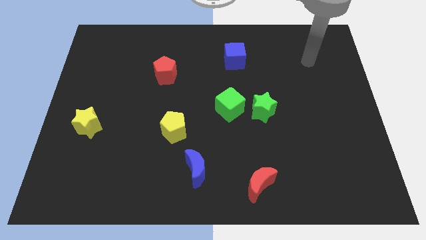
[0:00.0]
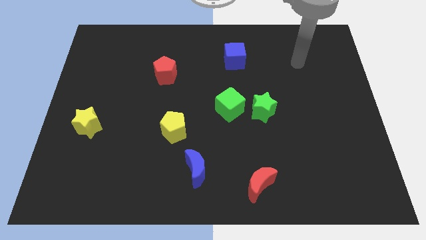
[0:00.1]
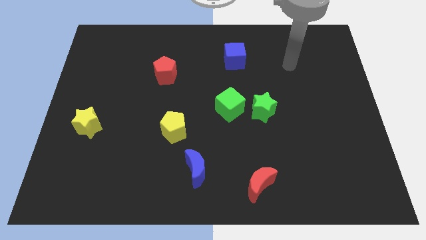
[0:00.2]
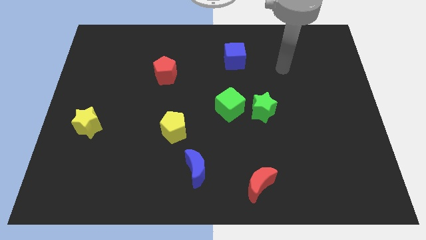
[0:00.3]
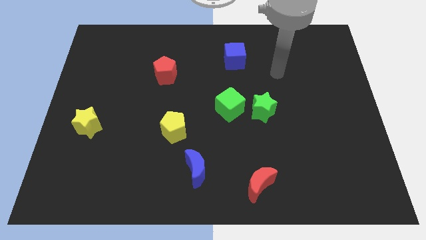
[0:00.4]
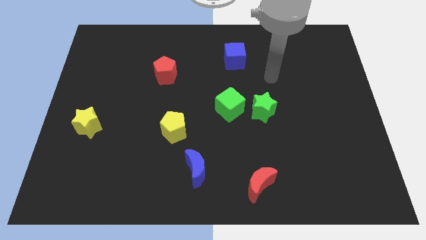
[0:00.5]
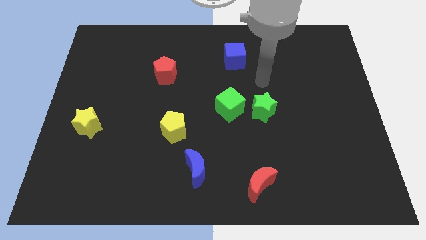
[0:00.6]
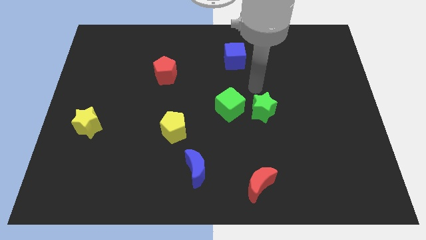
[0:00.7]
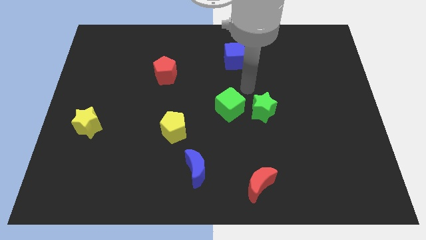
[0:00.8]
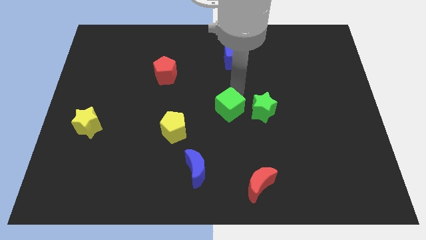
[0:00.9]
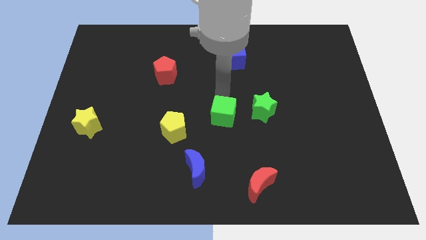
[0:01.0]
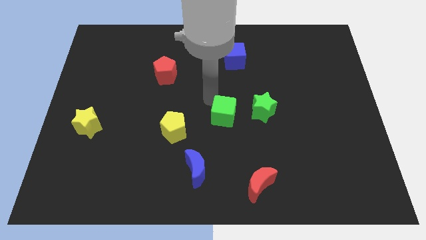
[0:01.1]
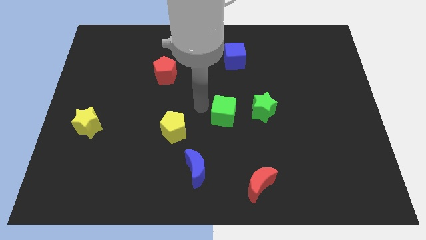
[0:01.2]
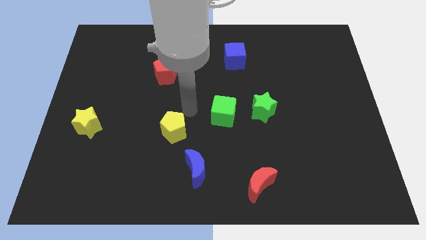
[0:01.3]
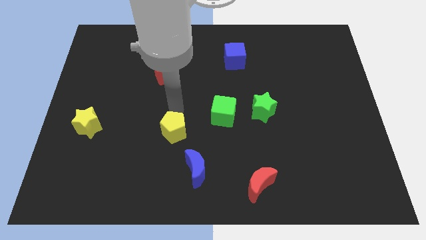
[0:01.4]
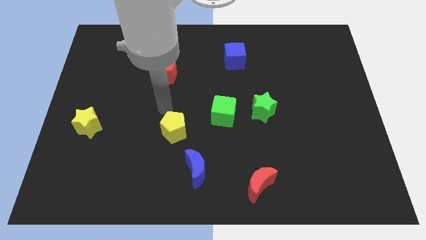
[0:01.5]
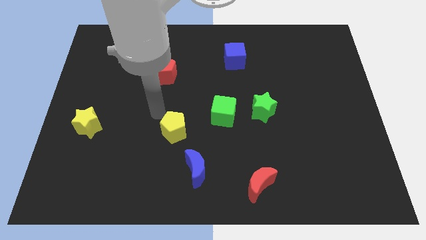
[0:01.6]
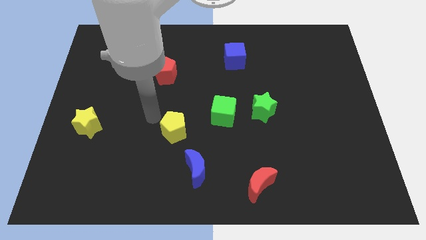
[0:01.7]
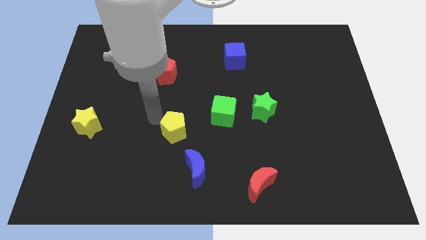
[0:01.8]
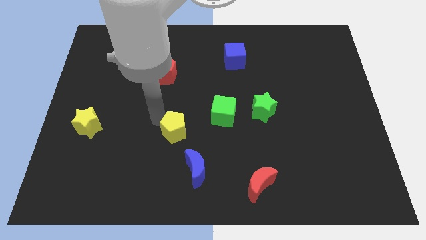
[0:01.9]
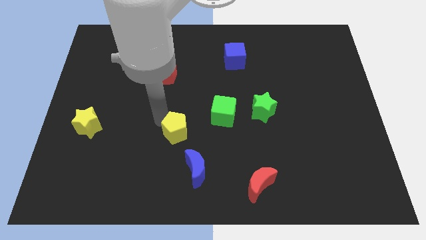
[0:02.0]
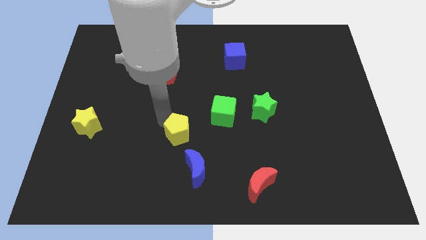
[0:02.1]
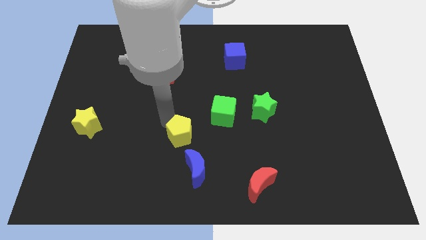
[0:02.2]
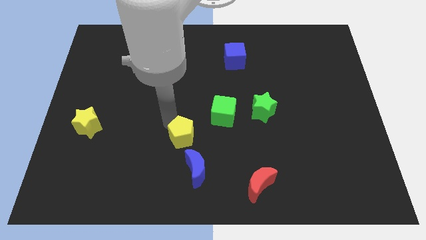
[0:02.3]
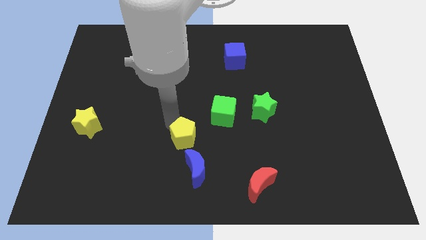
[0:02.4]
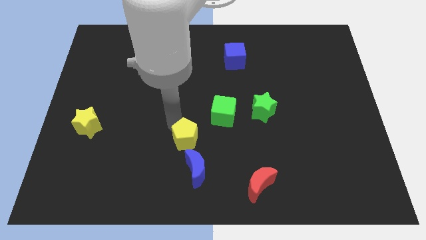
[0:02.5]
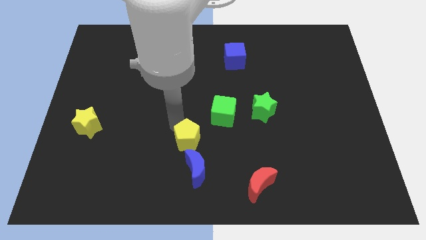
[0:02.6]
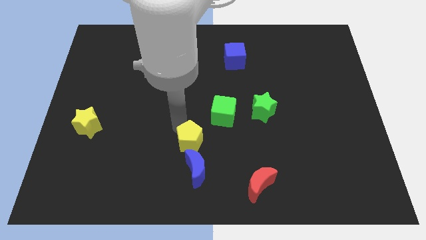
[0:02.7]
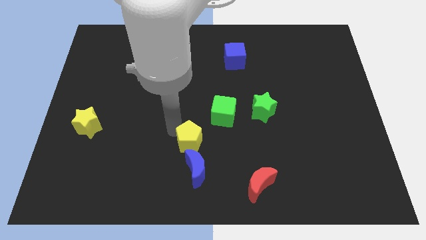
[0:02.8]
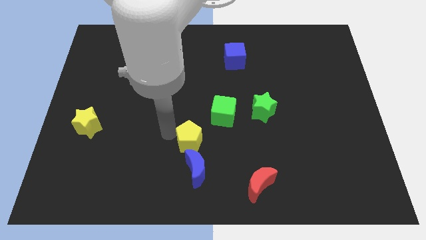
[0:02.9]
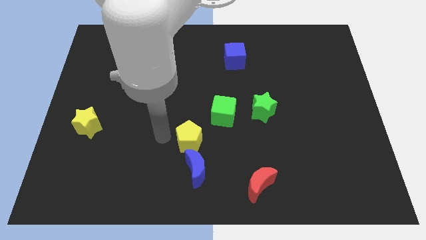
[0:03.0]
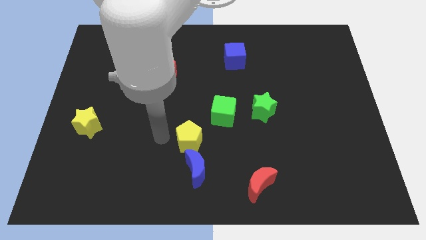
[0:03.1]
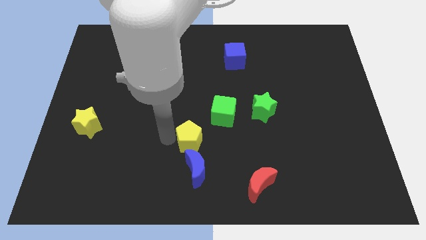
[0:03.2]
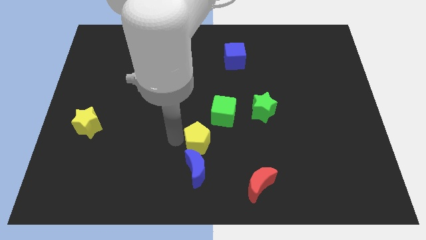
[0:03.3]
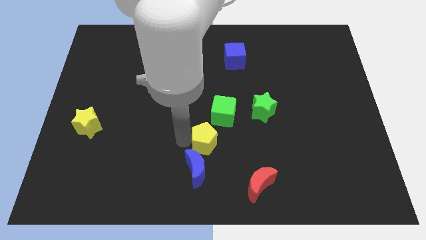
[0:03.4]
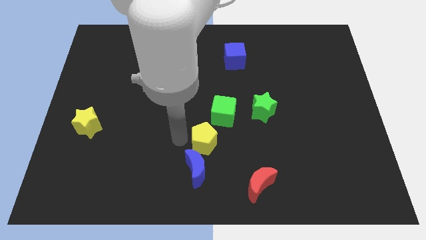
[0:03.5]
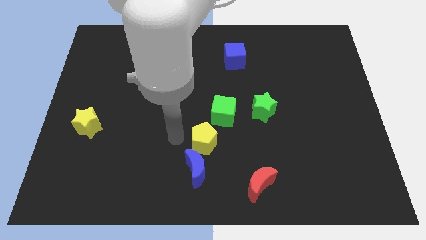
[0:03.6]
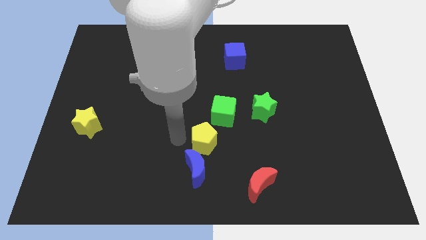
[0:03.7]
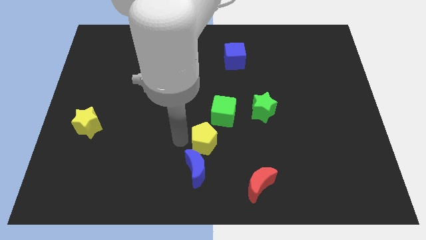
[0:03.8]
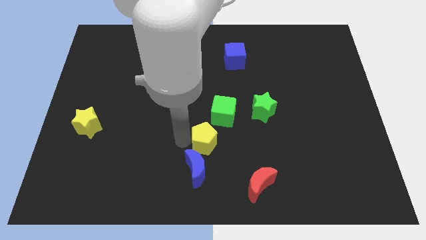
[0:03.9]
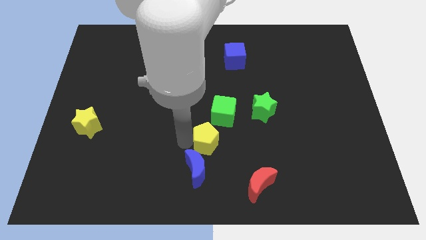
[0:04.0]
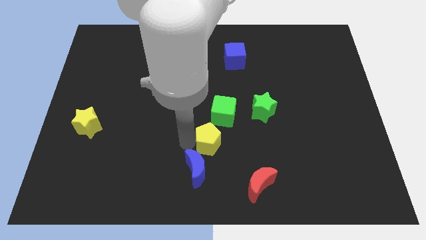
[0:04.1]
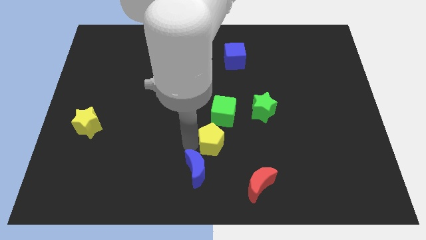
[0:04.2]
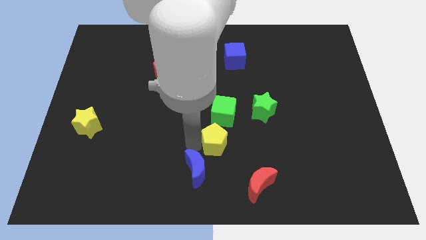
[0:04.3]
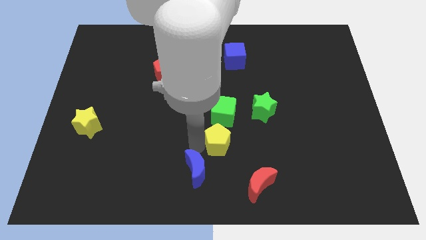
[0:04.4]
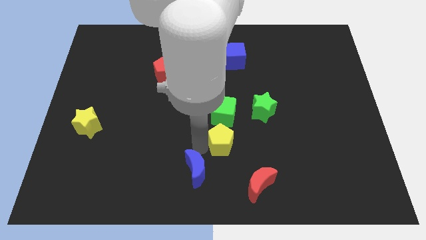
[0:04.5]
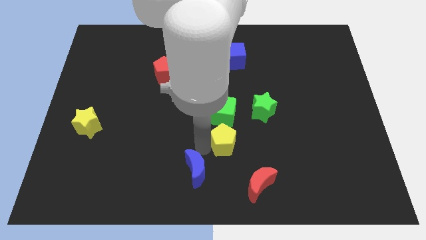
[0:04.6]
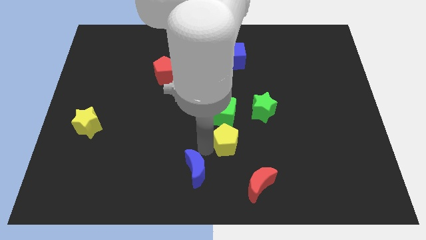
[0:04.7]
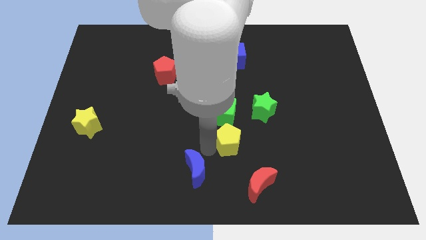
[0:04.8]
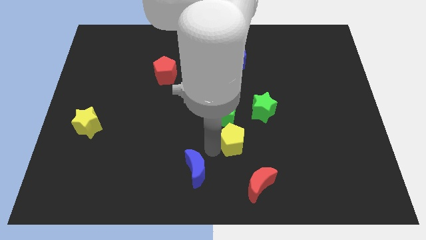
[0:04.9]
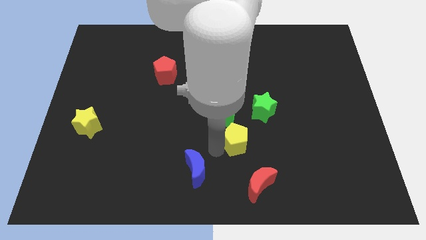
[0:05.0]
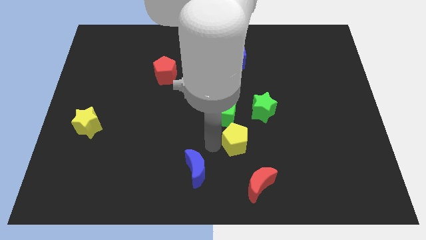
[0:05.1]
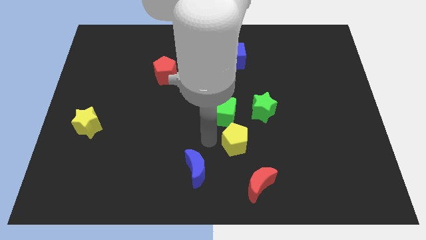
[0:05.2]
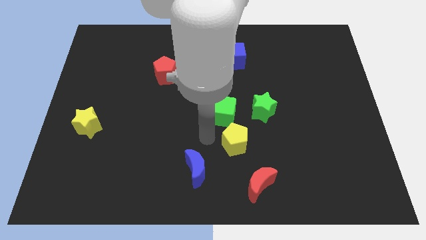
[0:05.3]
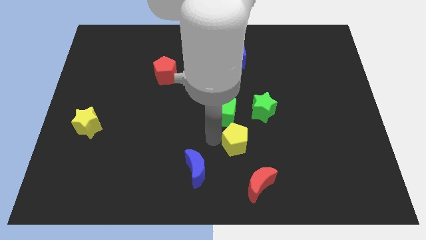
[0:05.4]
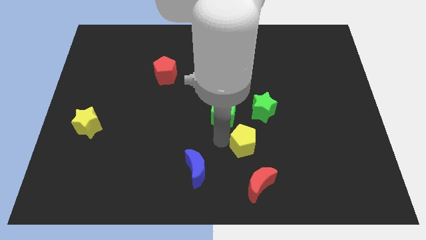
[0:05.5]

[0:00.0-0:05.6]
put the yellow pentagon to the bottom side of the green star

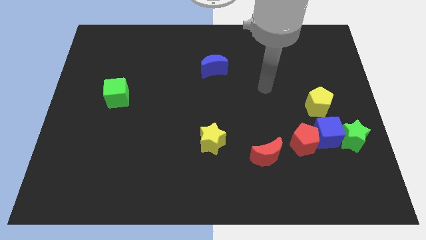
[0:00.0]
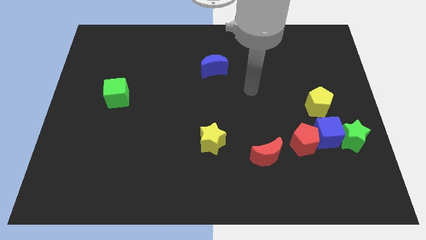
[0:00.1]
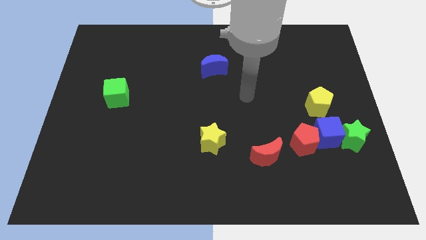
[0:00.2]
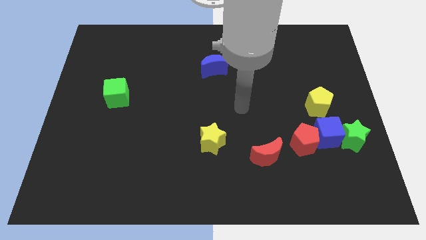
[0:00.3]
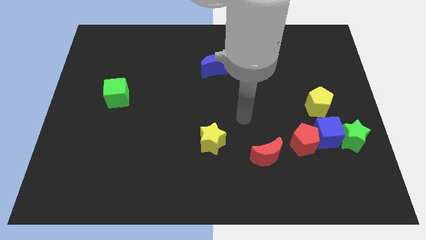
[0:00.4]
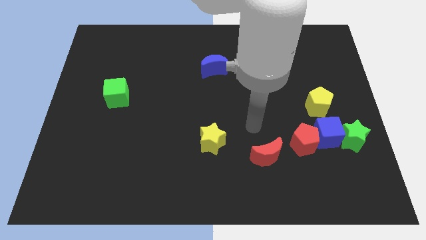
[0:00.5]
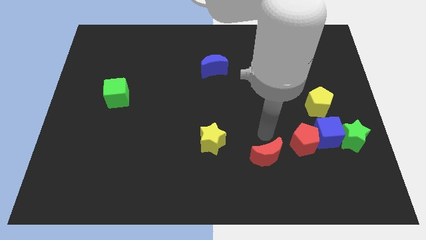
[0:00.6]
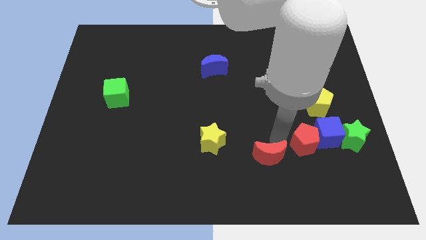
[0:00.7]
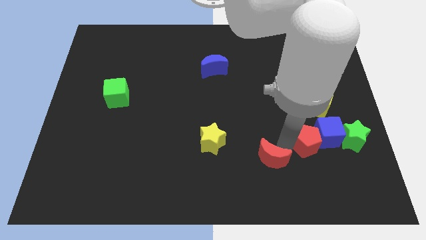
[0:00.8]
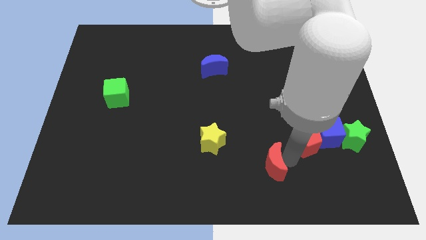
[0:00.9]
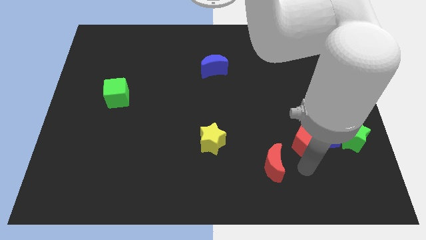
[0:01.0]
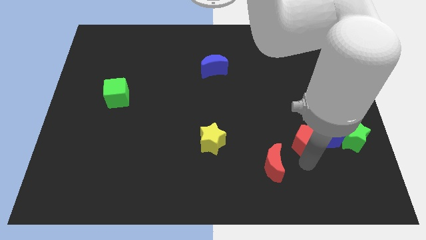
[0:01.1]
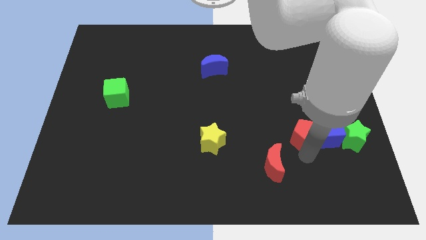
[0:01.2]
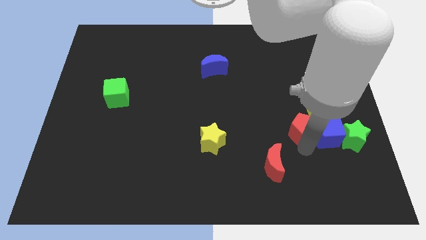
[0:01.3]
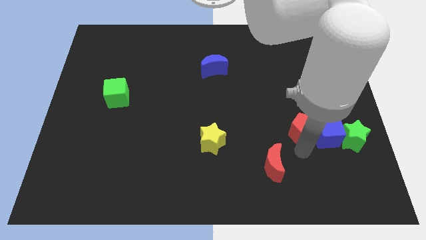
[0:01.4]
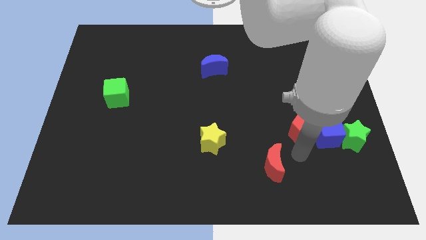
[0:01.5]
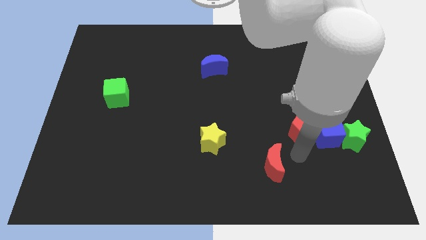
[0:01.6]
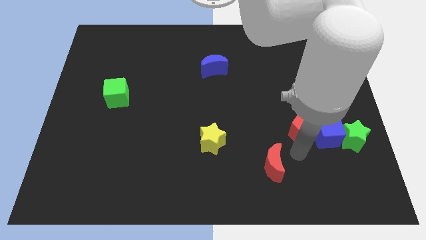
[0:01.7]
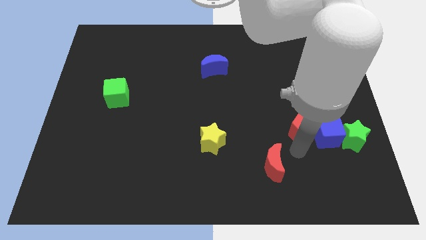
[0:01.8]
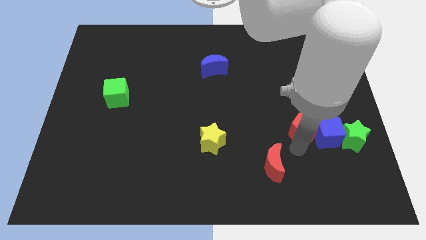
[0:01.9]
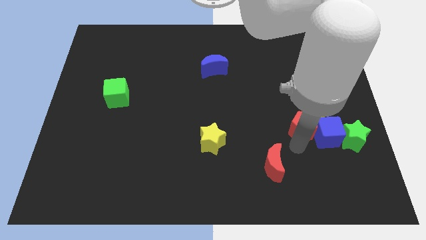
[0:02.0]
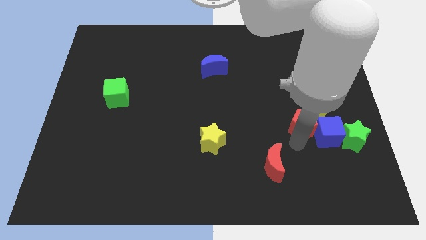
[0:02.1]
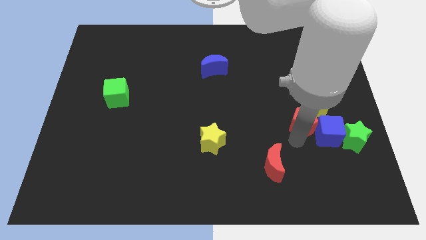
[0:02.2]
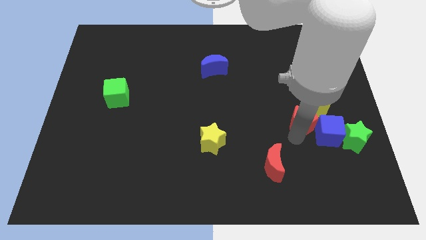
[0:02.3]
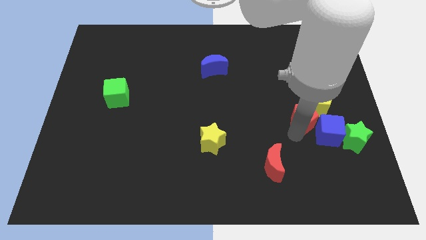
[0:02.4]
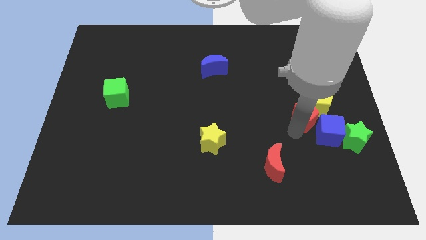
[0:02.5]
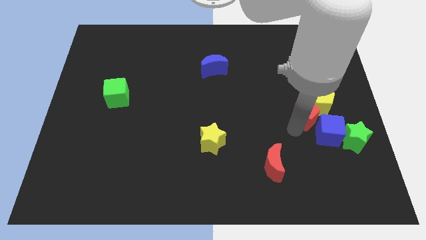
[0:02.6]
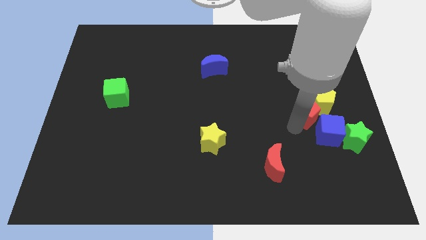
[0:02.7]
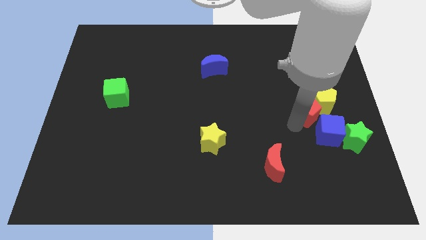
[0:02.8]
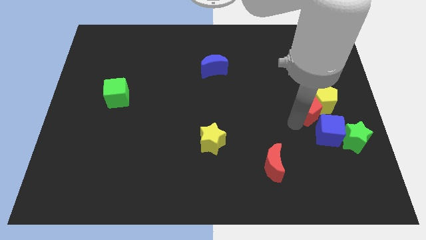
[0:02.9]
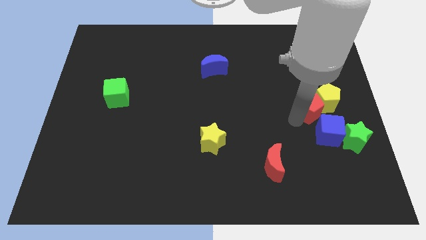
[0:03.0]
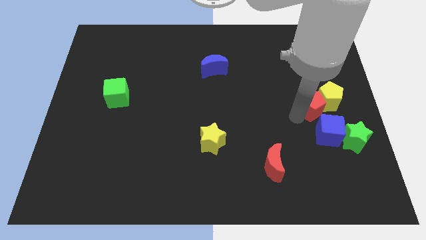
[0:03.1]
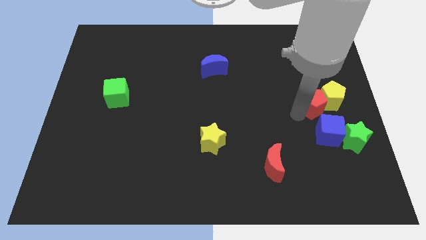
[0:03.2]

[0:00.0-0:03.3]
slide the red pentagon diagonally up and to the left of the yellow pentagon
